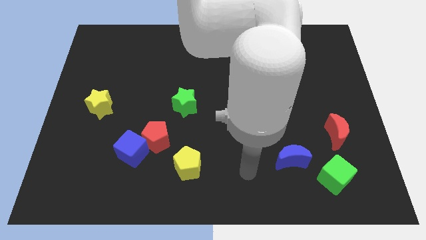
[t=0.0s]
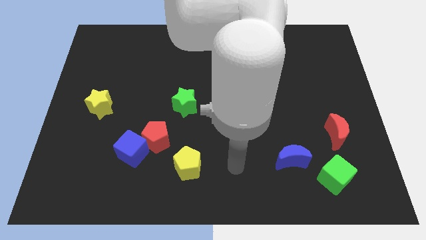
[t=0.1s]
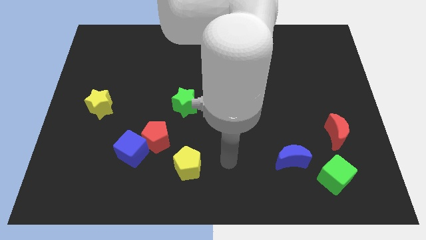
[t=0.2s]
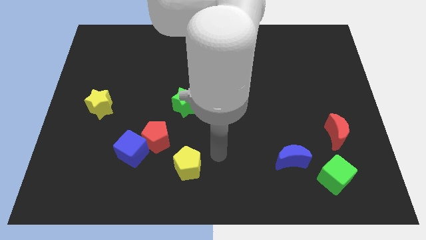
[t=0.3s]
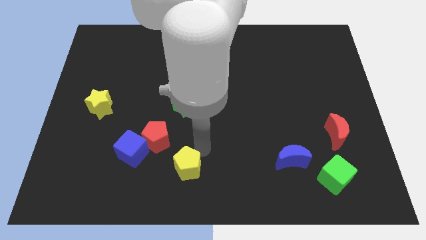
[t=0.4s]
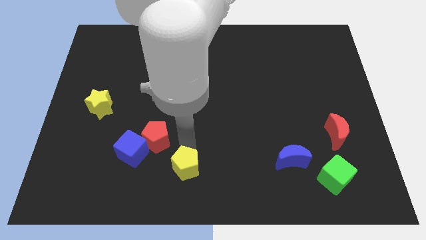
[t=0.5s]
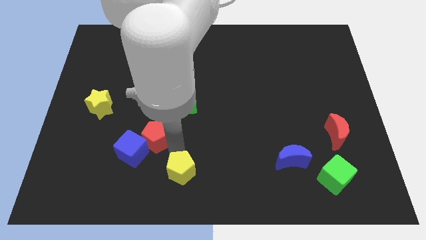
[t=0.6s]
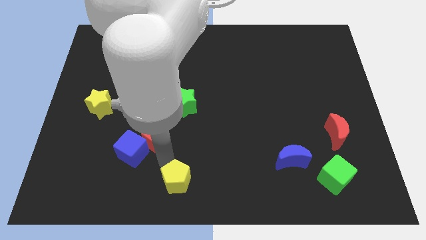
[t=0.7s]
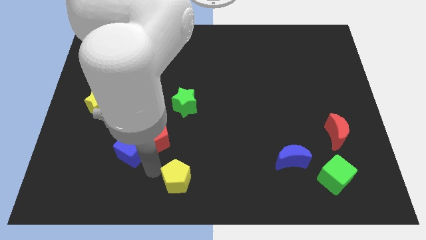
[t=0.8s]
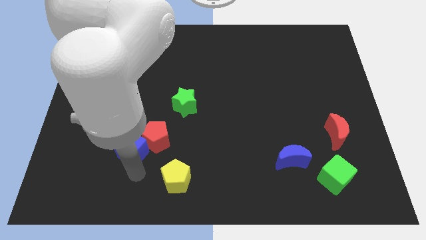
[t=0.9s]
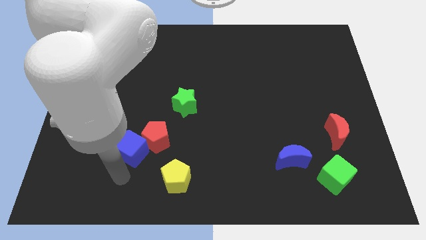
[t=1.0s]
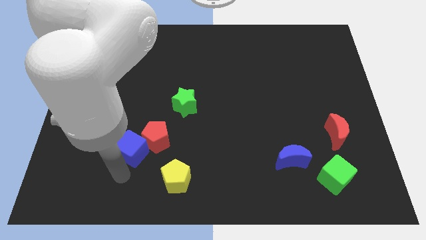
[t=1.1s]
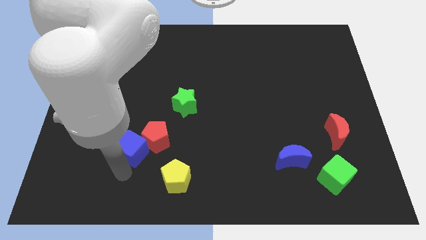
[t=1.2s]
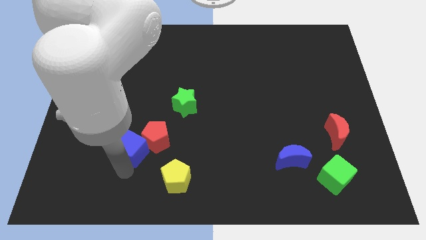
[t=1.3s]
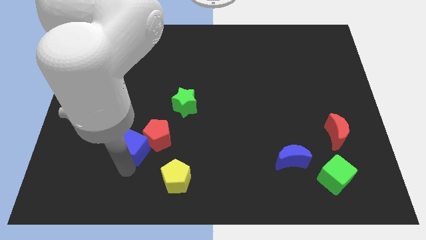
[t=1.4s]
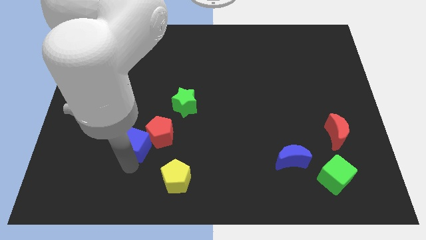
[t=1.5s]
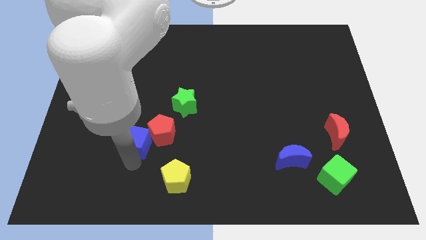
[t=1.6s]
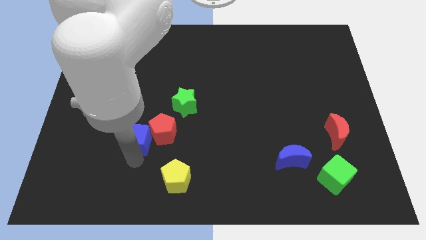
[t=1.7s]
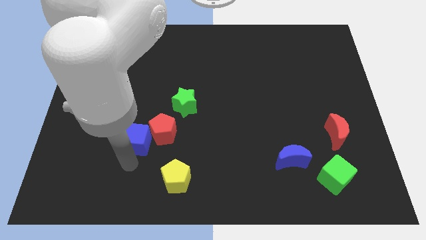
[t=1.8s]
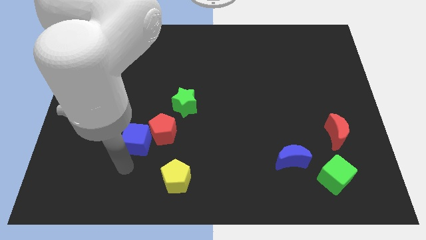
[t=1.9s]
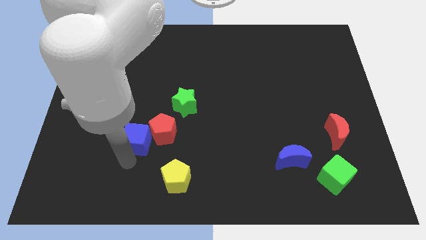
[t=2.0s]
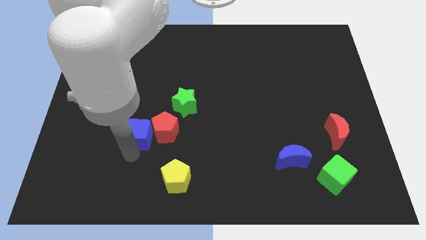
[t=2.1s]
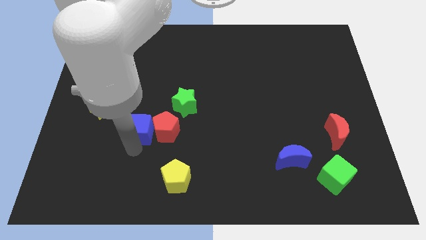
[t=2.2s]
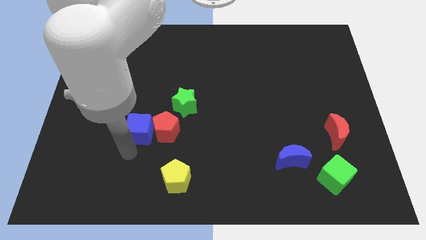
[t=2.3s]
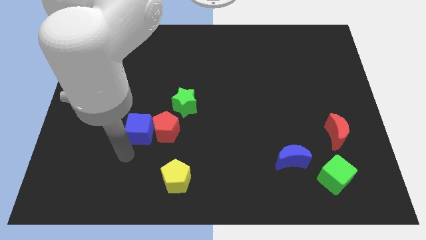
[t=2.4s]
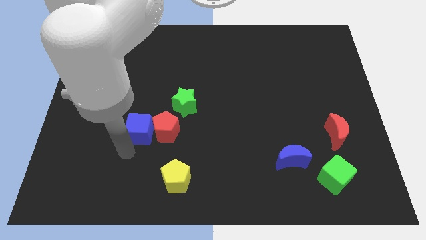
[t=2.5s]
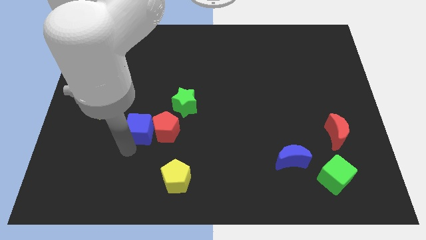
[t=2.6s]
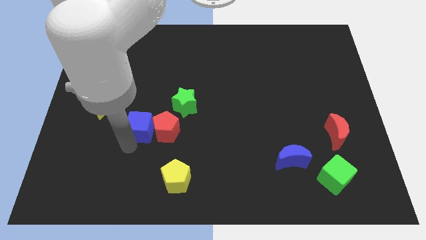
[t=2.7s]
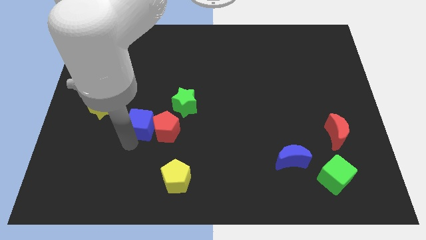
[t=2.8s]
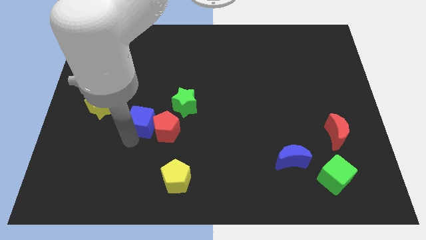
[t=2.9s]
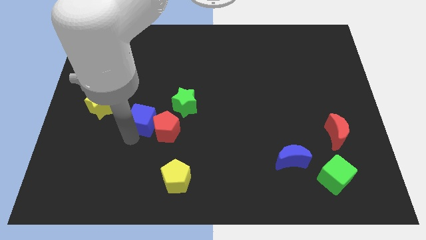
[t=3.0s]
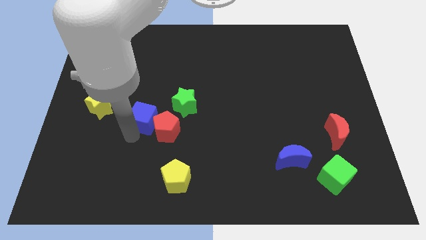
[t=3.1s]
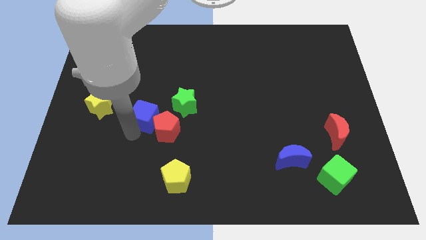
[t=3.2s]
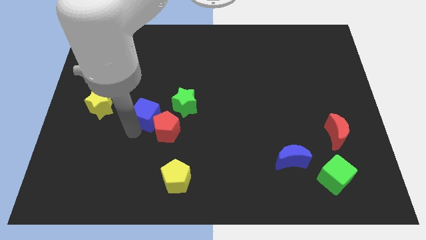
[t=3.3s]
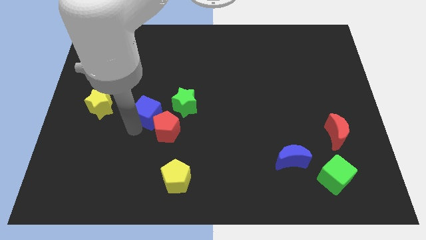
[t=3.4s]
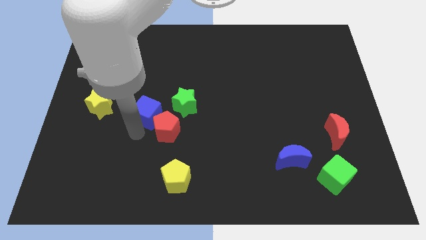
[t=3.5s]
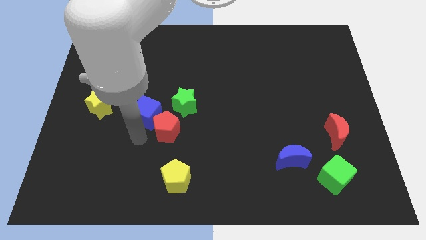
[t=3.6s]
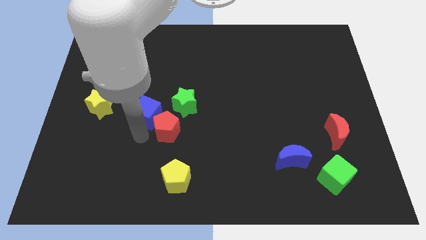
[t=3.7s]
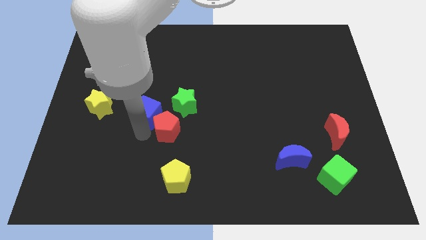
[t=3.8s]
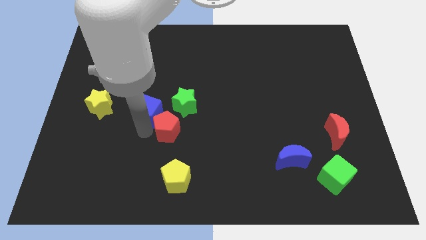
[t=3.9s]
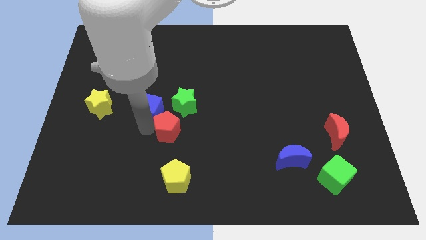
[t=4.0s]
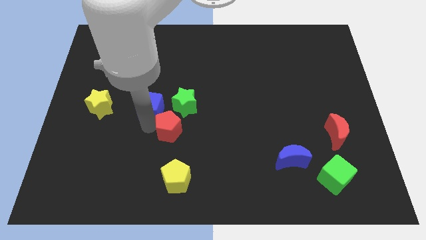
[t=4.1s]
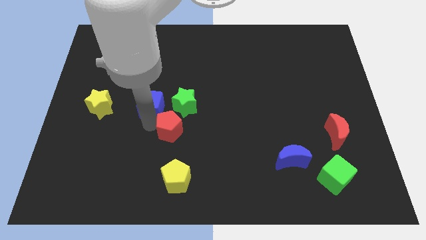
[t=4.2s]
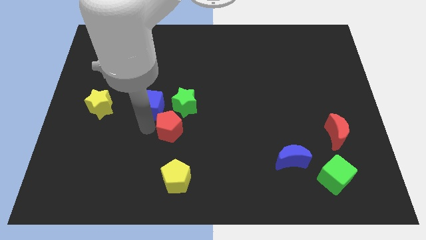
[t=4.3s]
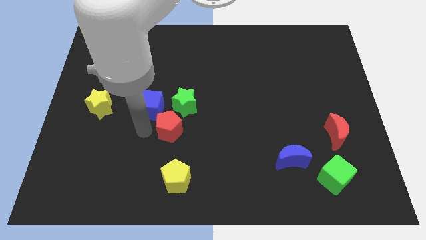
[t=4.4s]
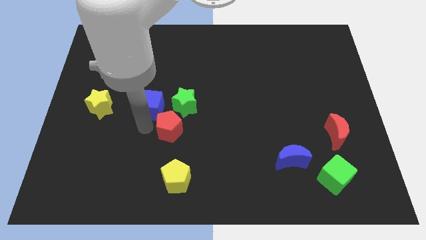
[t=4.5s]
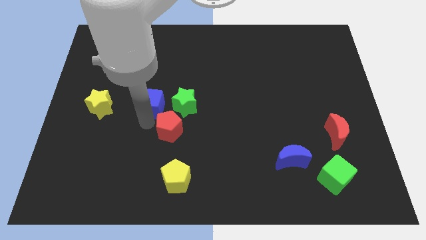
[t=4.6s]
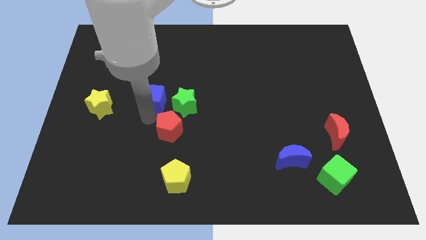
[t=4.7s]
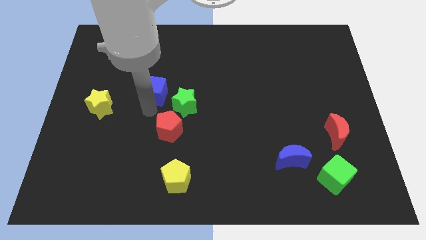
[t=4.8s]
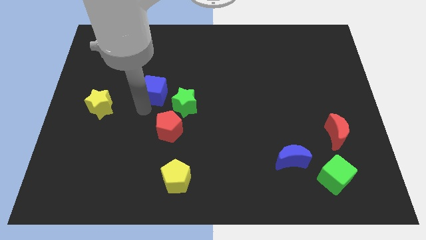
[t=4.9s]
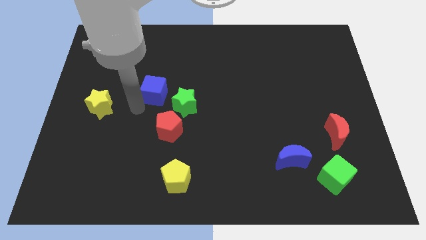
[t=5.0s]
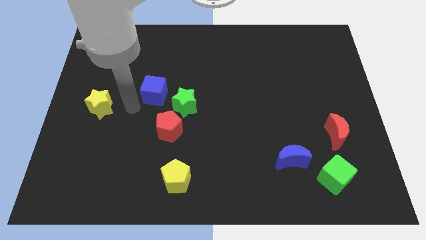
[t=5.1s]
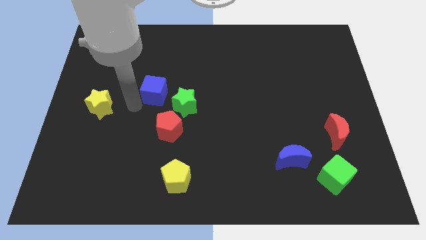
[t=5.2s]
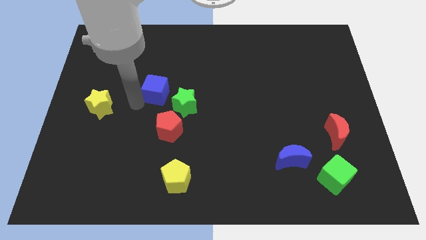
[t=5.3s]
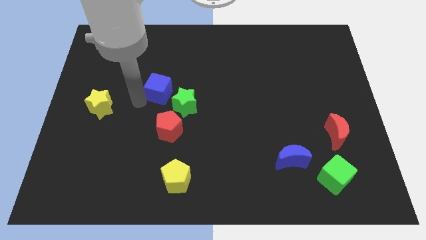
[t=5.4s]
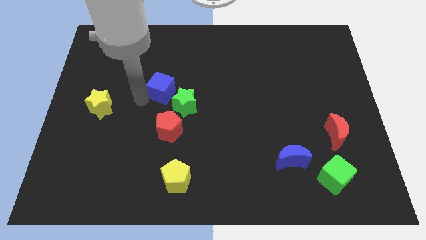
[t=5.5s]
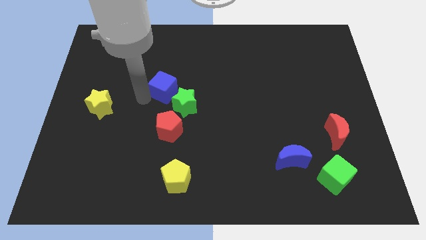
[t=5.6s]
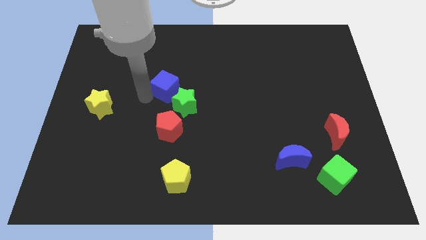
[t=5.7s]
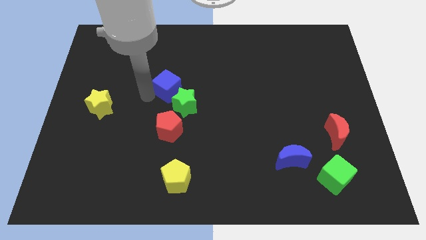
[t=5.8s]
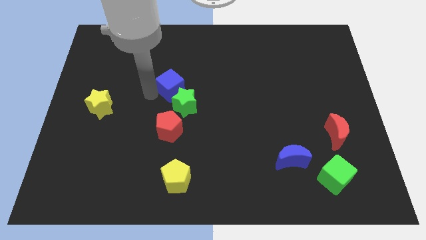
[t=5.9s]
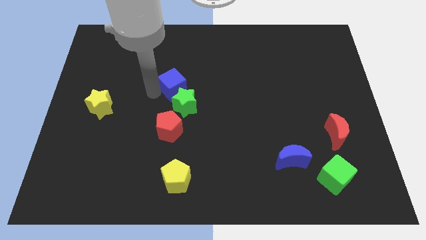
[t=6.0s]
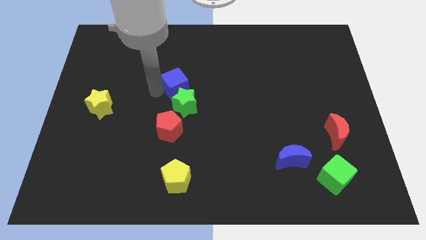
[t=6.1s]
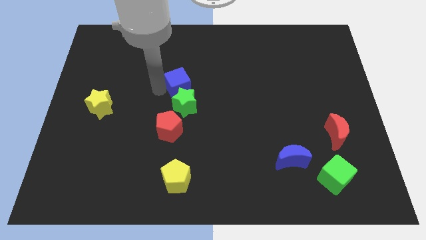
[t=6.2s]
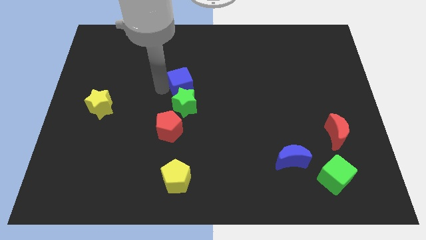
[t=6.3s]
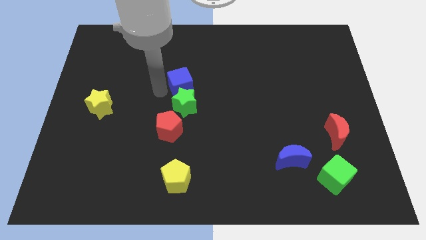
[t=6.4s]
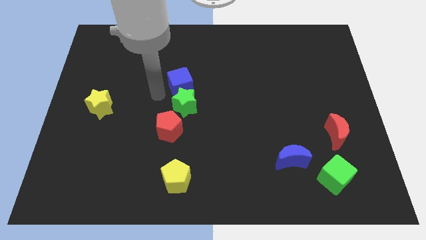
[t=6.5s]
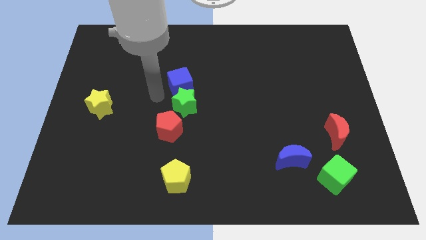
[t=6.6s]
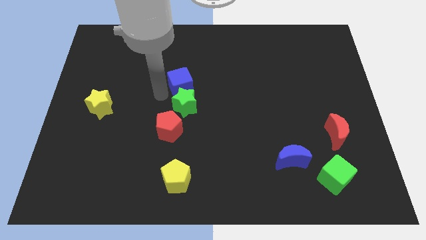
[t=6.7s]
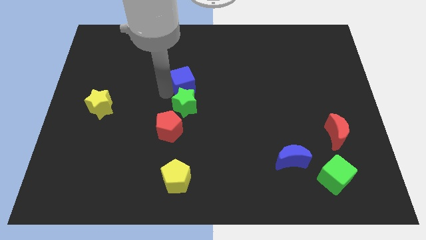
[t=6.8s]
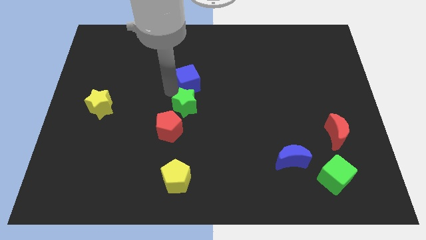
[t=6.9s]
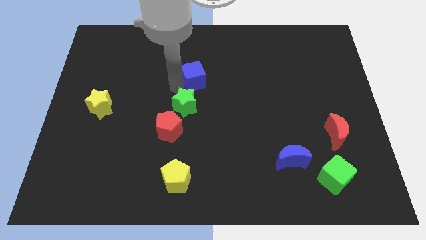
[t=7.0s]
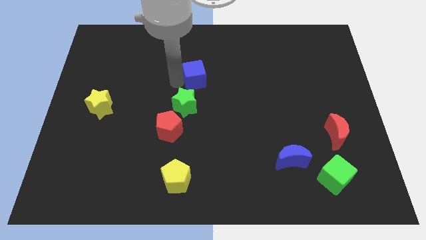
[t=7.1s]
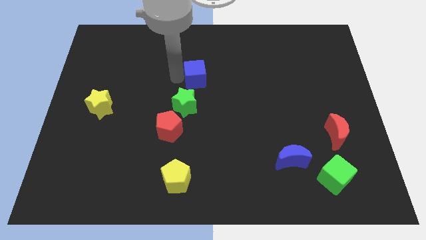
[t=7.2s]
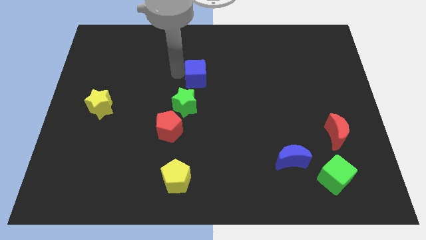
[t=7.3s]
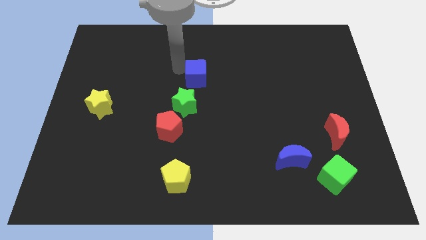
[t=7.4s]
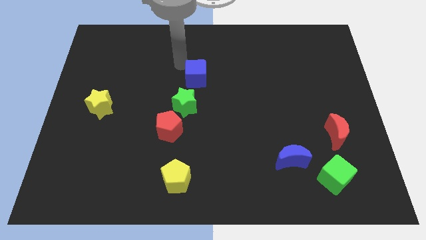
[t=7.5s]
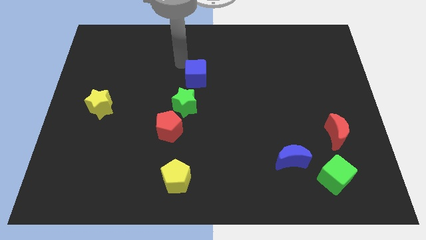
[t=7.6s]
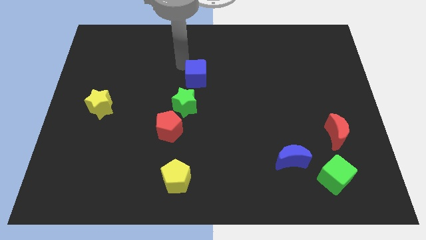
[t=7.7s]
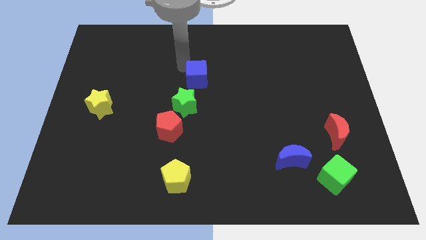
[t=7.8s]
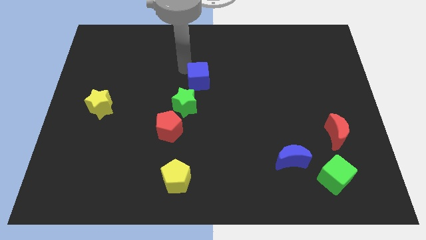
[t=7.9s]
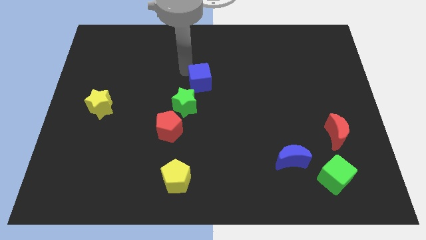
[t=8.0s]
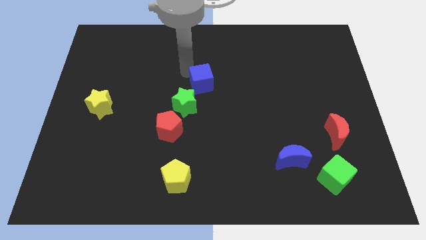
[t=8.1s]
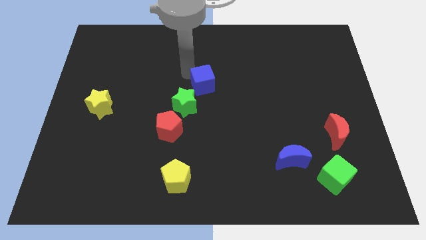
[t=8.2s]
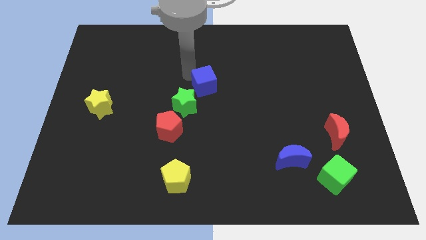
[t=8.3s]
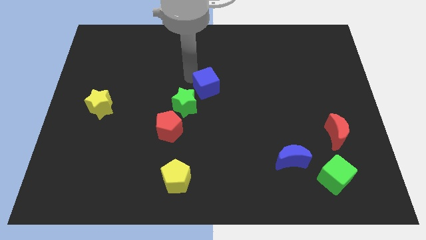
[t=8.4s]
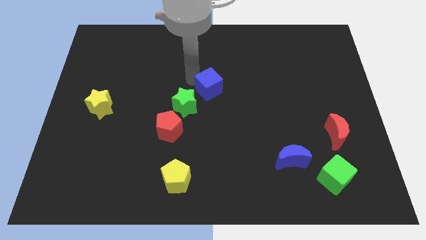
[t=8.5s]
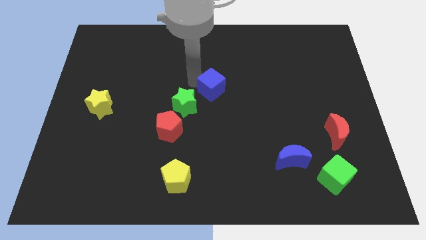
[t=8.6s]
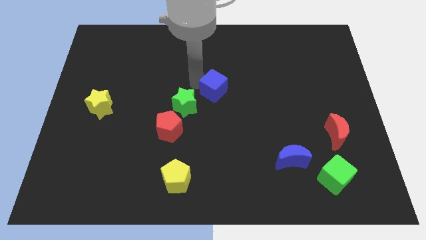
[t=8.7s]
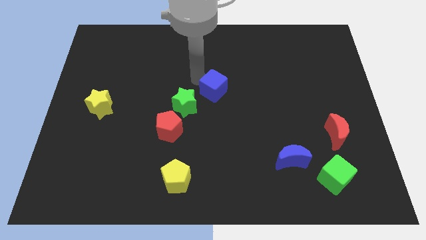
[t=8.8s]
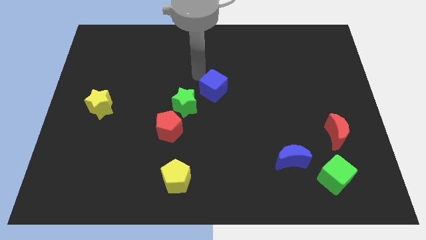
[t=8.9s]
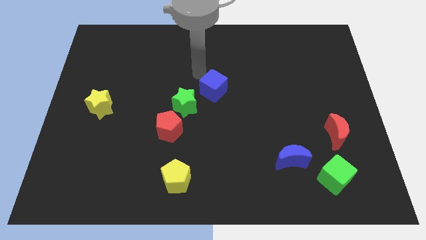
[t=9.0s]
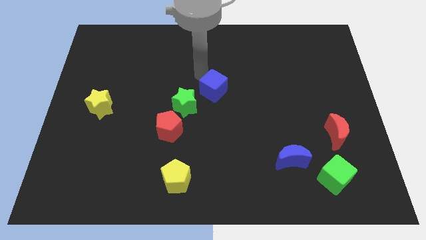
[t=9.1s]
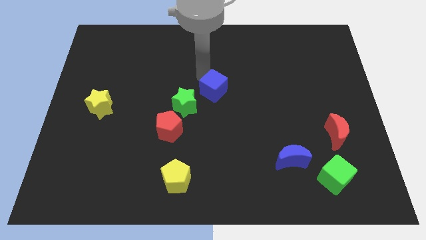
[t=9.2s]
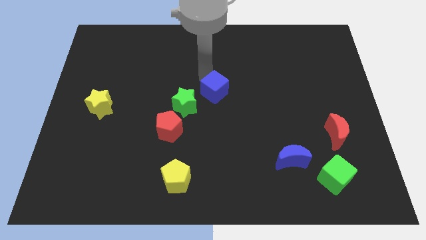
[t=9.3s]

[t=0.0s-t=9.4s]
slide the blue cube to the right of the green star
